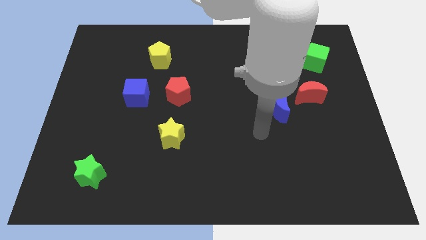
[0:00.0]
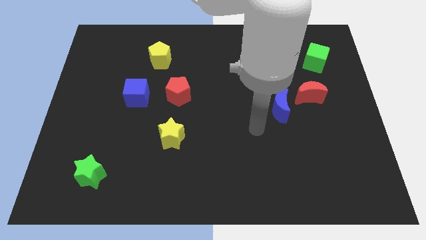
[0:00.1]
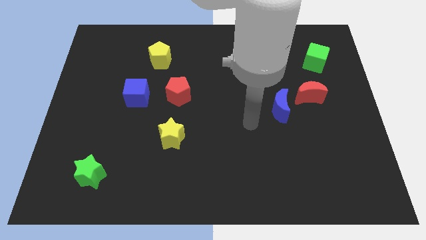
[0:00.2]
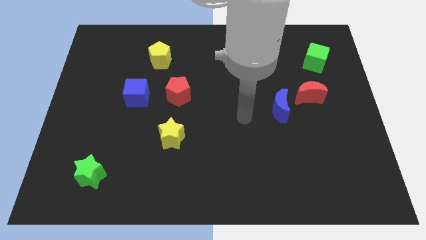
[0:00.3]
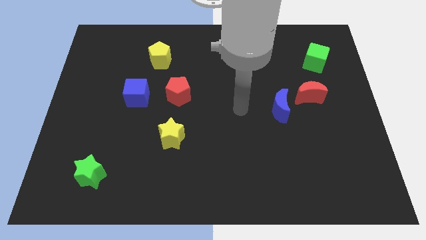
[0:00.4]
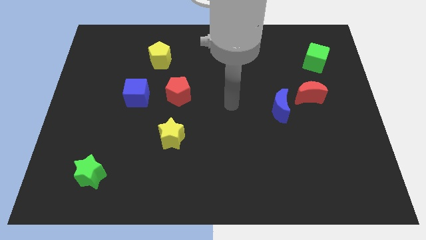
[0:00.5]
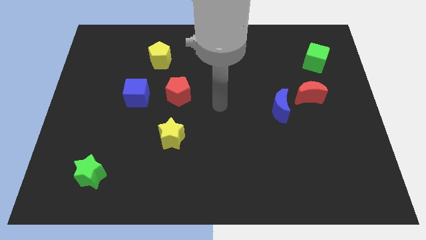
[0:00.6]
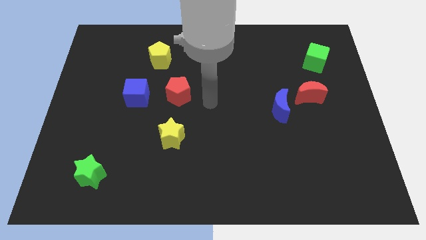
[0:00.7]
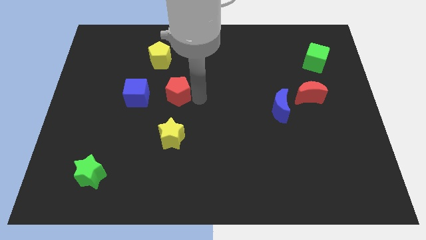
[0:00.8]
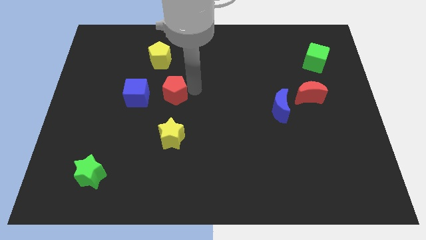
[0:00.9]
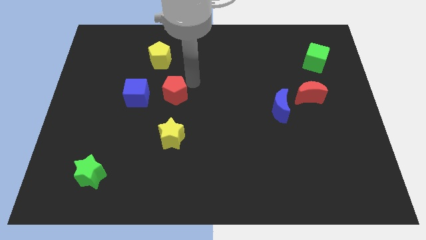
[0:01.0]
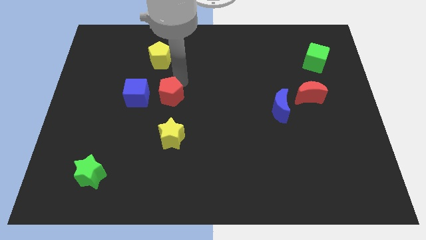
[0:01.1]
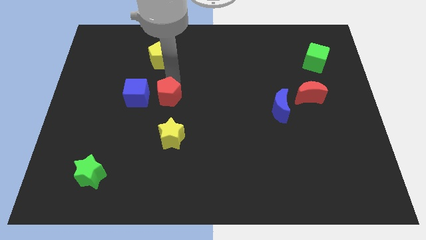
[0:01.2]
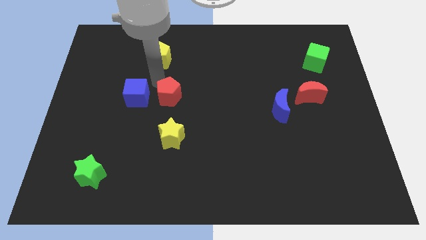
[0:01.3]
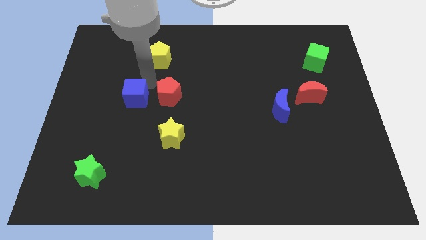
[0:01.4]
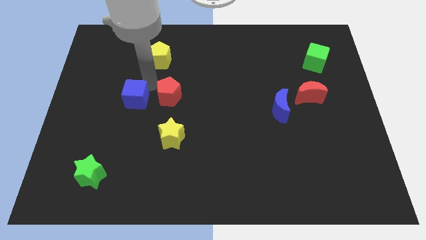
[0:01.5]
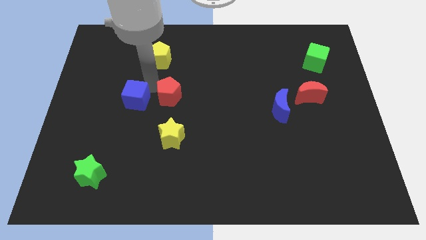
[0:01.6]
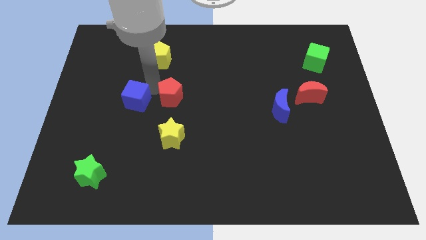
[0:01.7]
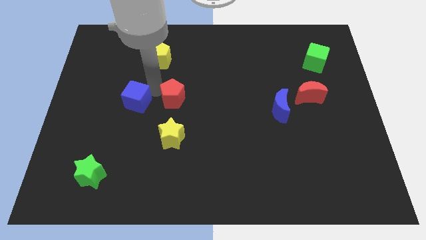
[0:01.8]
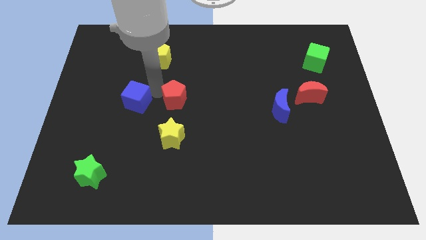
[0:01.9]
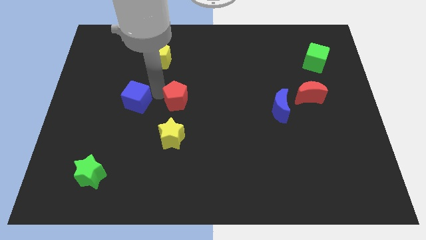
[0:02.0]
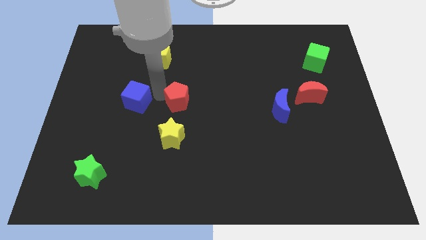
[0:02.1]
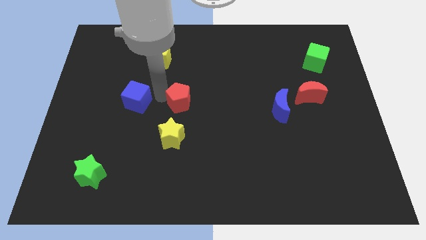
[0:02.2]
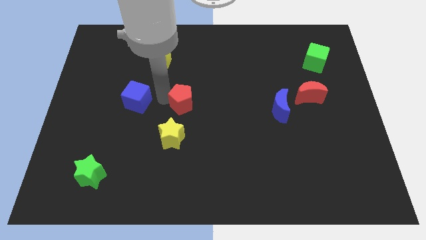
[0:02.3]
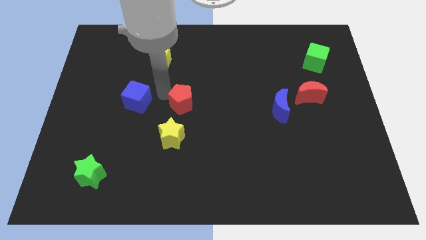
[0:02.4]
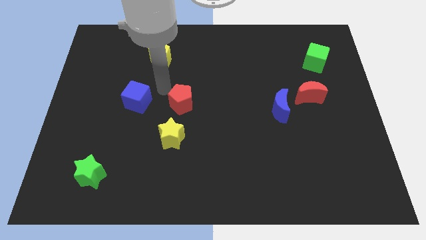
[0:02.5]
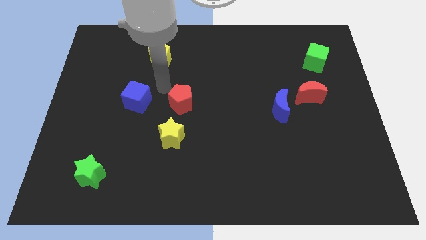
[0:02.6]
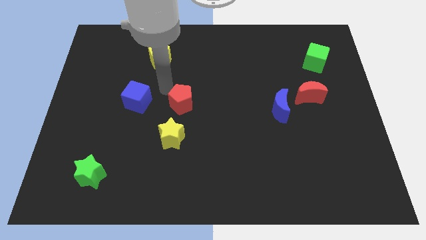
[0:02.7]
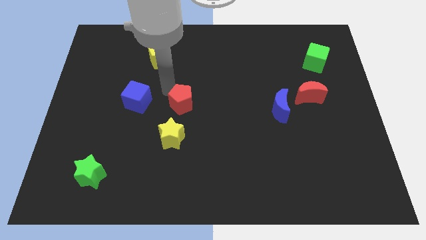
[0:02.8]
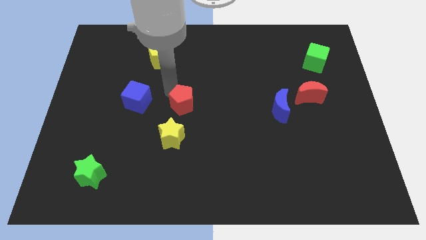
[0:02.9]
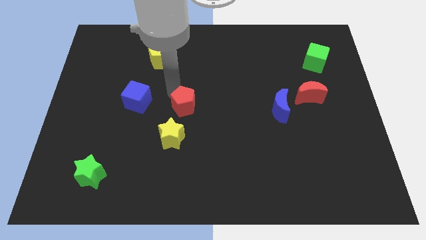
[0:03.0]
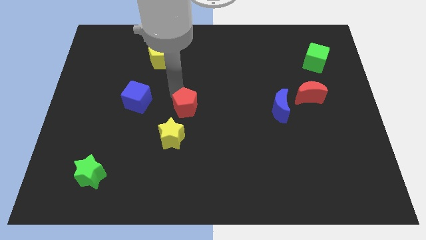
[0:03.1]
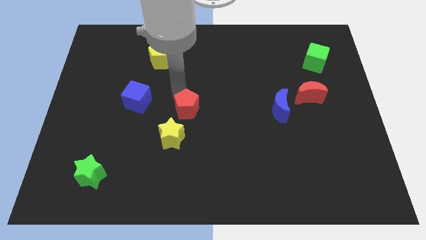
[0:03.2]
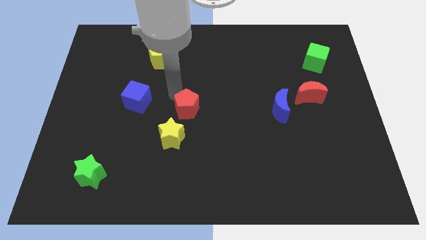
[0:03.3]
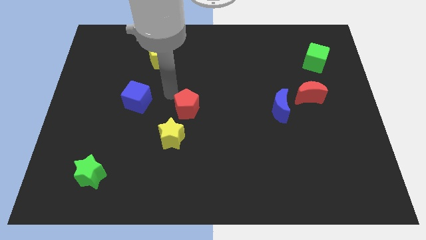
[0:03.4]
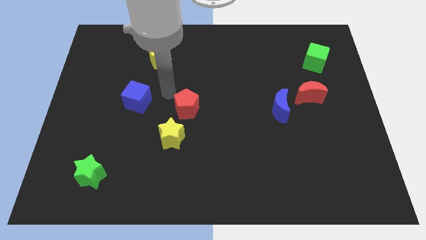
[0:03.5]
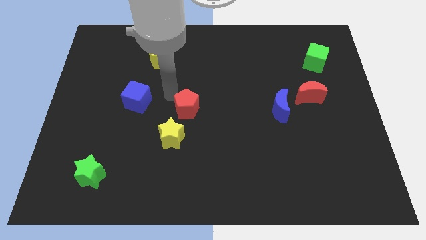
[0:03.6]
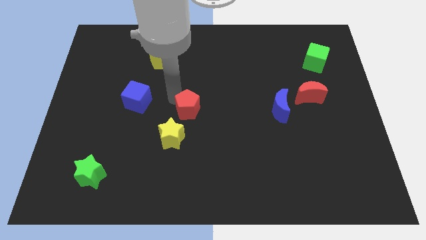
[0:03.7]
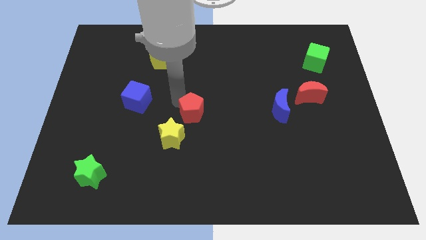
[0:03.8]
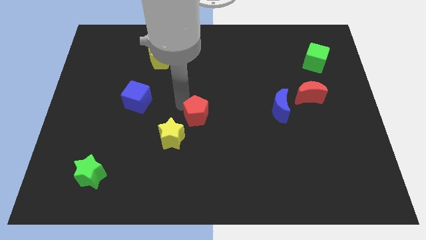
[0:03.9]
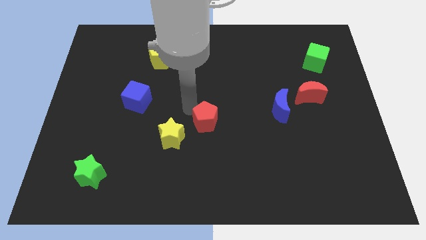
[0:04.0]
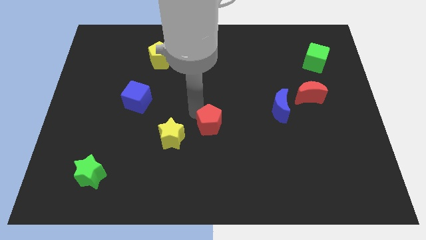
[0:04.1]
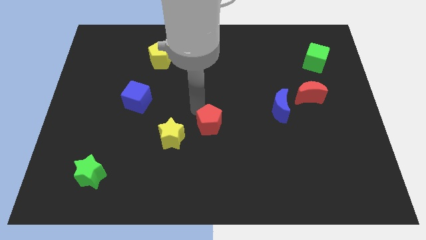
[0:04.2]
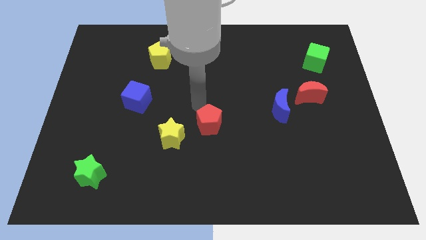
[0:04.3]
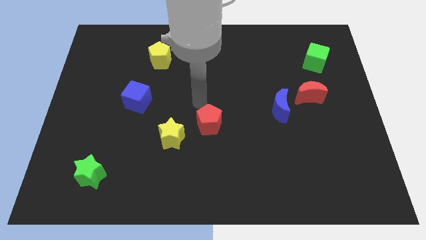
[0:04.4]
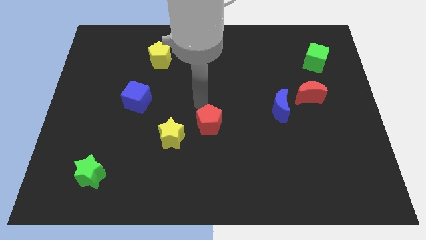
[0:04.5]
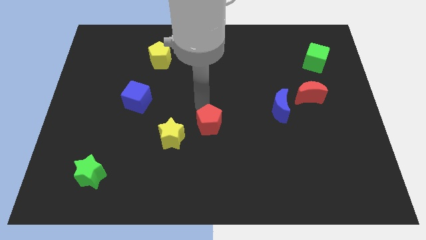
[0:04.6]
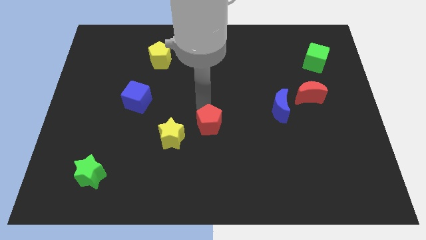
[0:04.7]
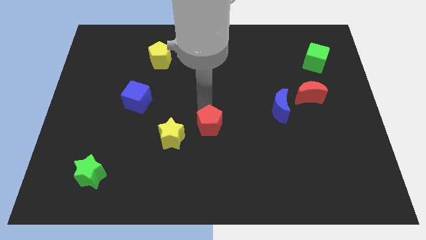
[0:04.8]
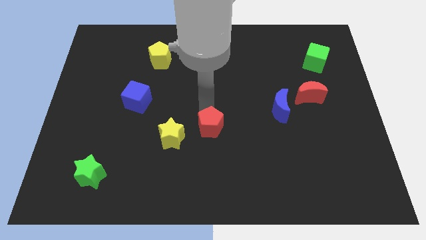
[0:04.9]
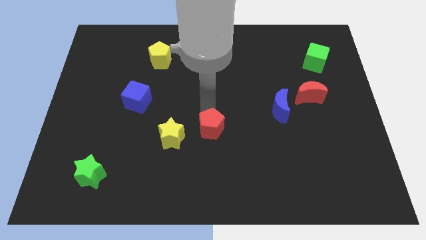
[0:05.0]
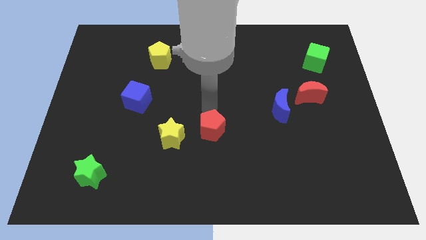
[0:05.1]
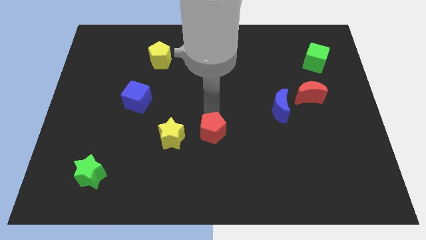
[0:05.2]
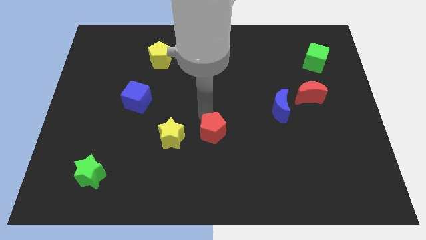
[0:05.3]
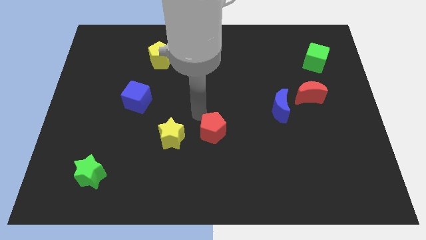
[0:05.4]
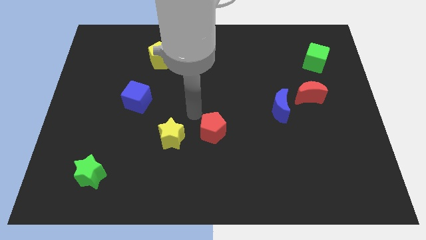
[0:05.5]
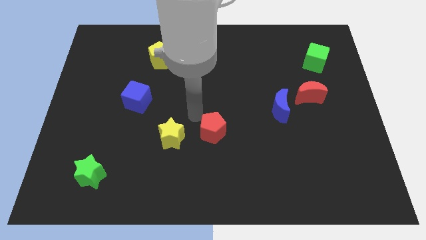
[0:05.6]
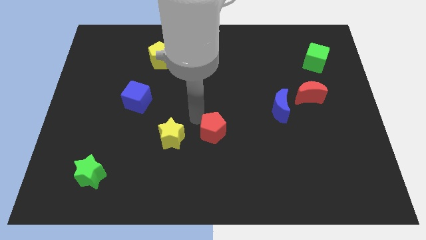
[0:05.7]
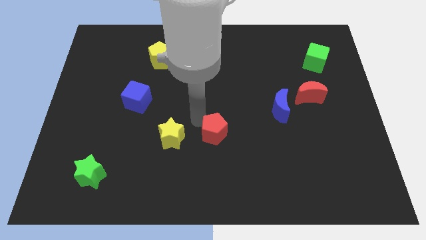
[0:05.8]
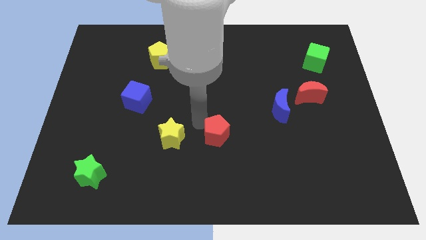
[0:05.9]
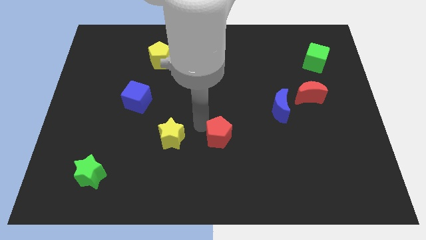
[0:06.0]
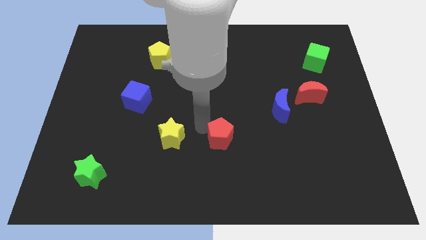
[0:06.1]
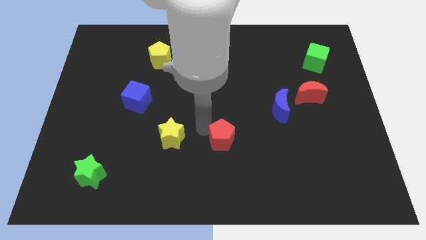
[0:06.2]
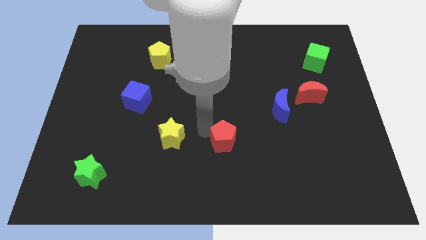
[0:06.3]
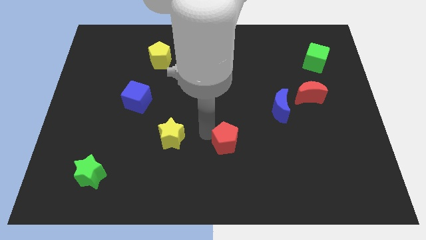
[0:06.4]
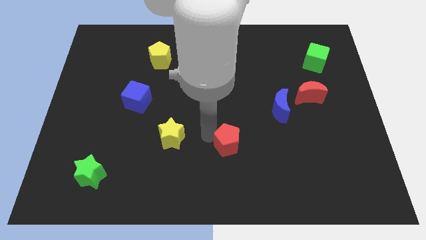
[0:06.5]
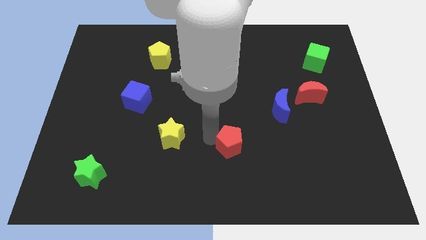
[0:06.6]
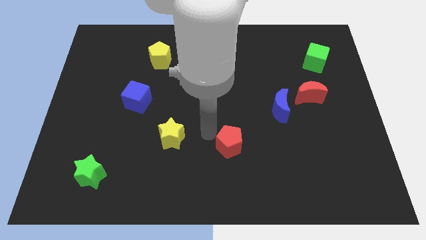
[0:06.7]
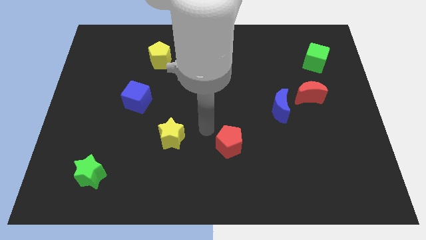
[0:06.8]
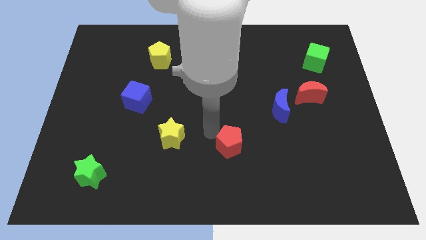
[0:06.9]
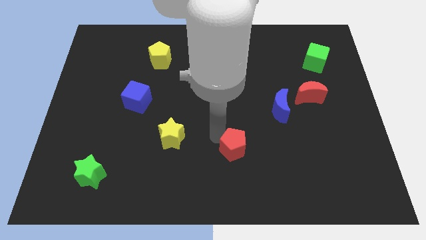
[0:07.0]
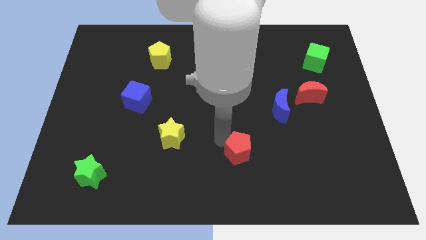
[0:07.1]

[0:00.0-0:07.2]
move the red pentagon diagonally down and right

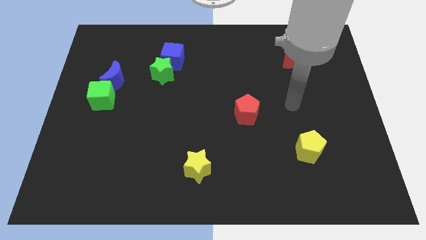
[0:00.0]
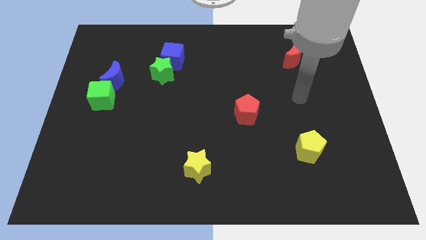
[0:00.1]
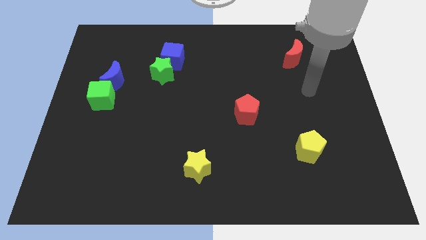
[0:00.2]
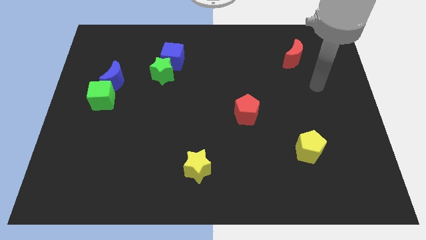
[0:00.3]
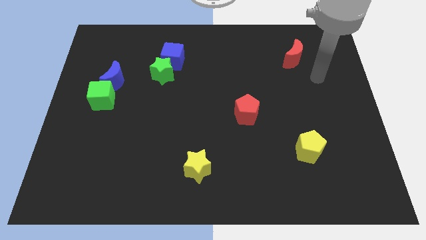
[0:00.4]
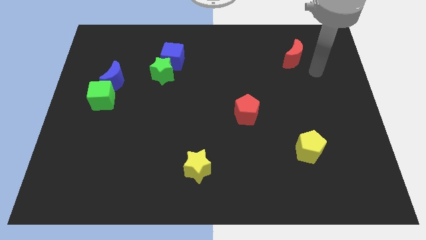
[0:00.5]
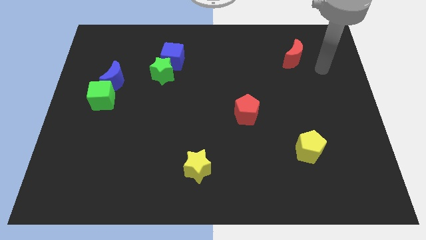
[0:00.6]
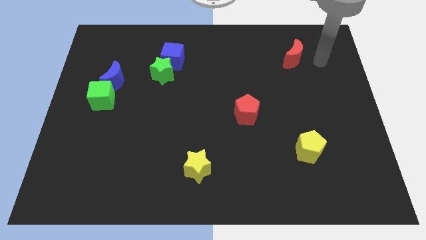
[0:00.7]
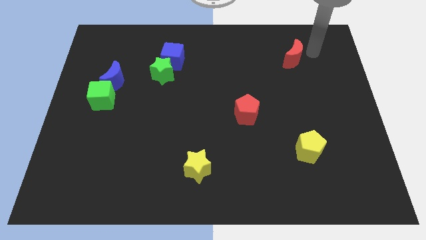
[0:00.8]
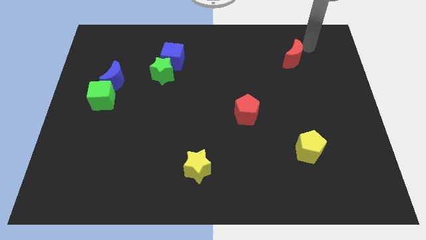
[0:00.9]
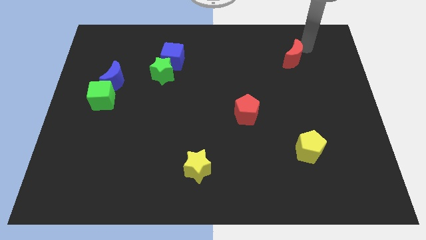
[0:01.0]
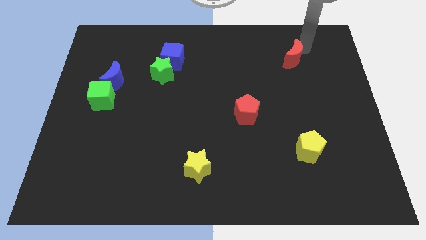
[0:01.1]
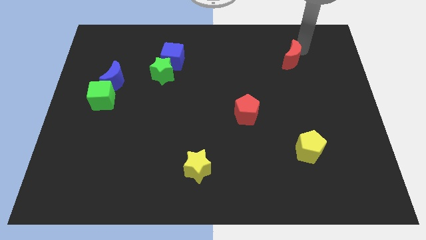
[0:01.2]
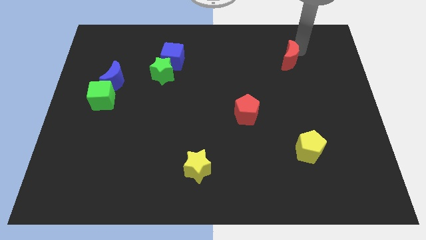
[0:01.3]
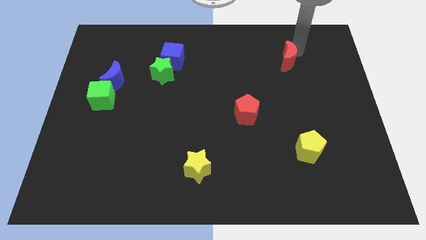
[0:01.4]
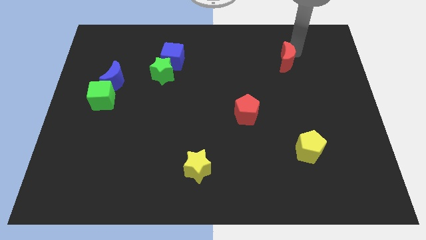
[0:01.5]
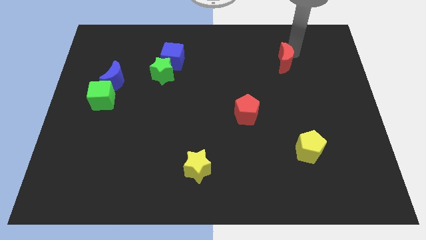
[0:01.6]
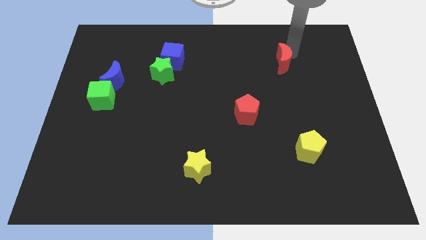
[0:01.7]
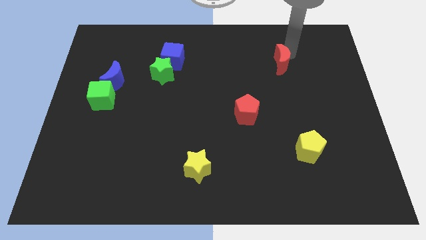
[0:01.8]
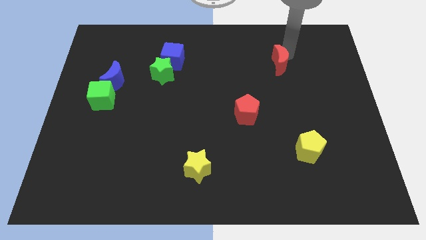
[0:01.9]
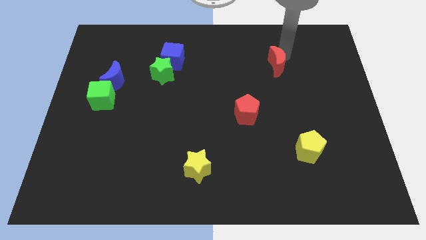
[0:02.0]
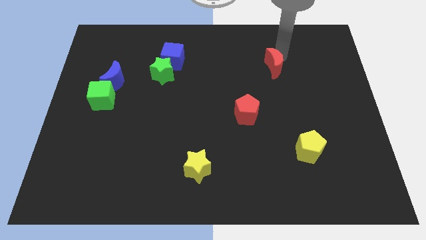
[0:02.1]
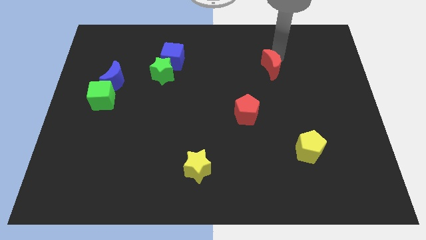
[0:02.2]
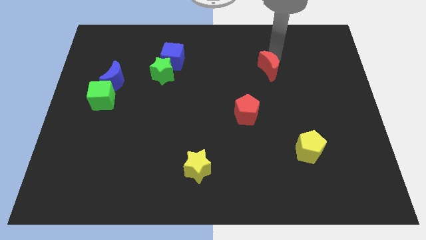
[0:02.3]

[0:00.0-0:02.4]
push the red moon downwards and then to the left a bit
